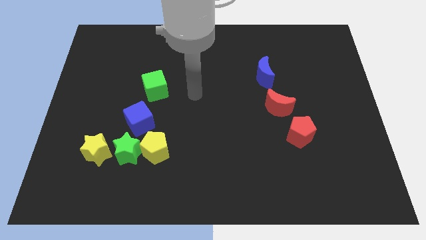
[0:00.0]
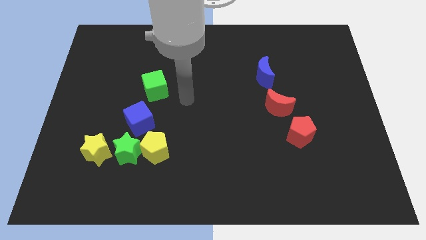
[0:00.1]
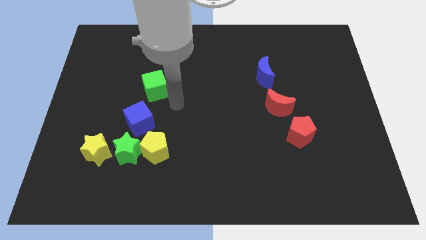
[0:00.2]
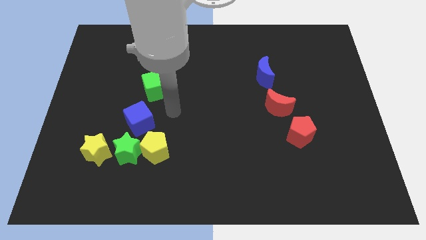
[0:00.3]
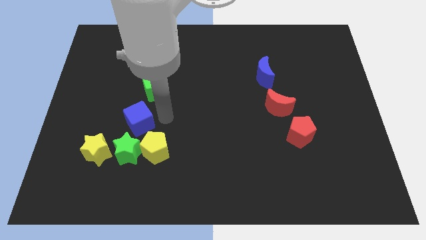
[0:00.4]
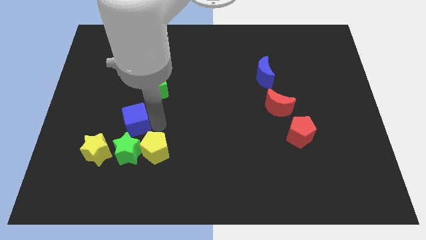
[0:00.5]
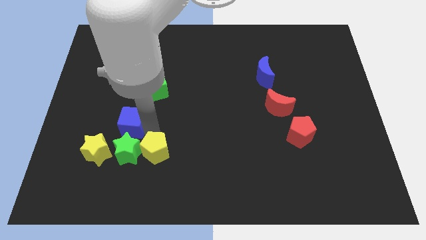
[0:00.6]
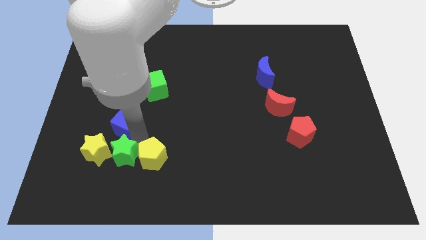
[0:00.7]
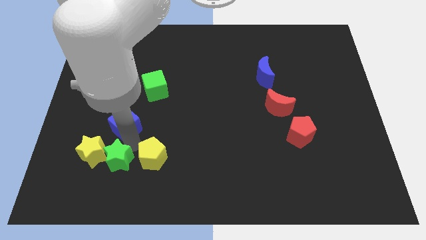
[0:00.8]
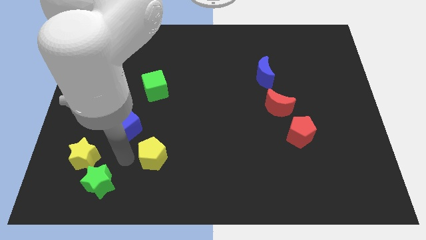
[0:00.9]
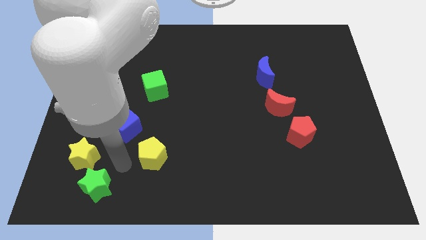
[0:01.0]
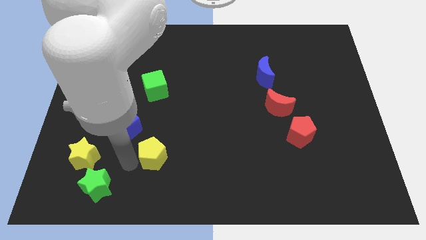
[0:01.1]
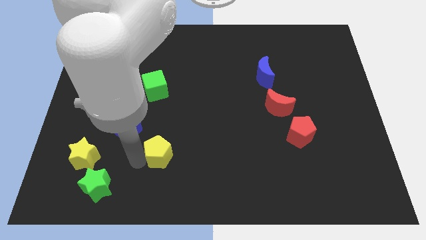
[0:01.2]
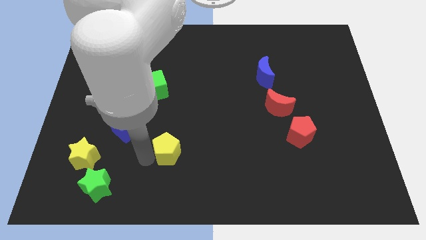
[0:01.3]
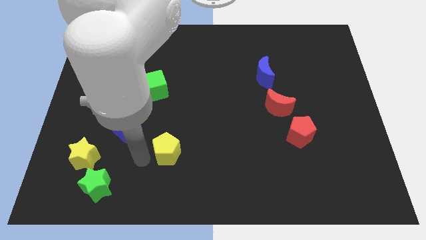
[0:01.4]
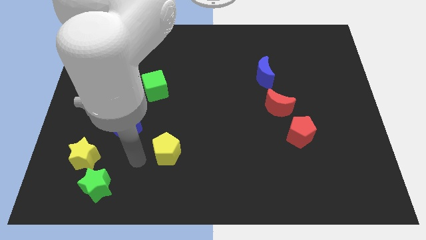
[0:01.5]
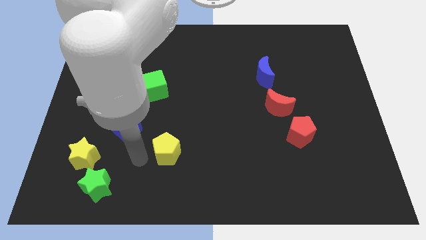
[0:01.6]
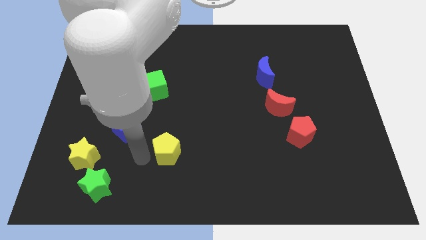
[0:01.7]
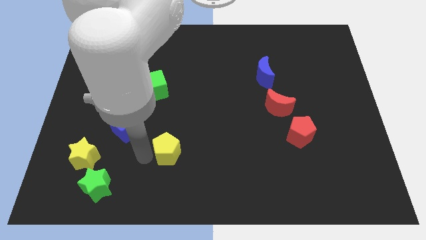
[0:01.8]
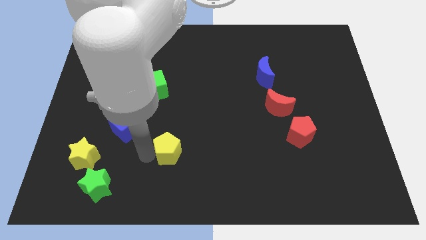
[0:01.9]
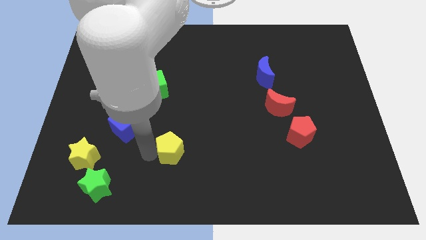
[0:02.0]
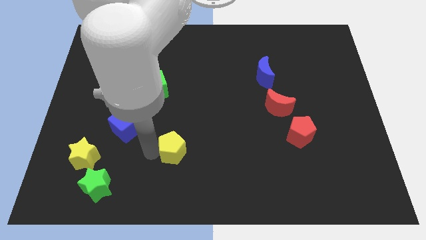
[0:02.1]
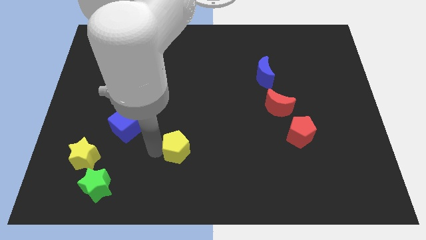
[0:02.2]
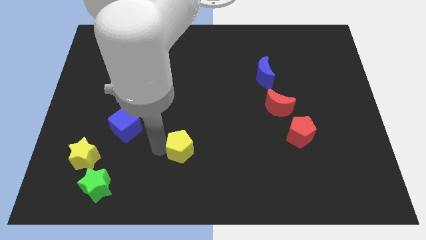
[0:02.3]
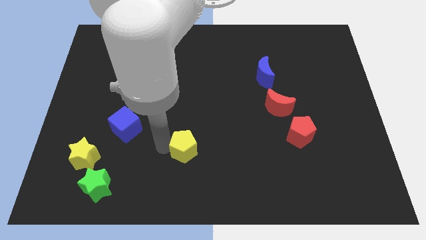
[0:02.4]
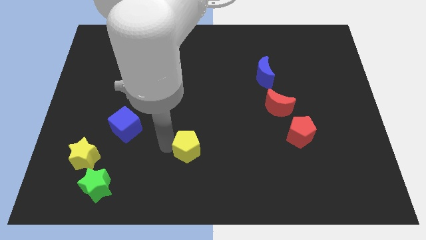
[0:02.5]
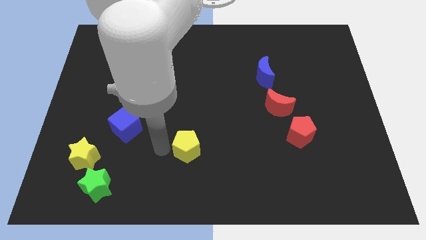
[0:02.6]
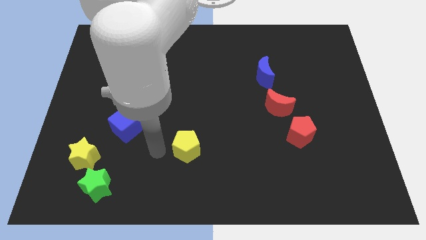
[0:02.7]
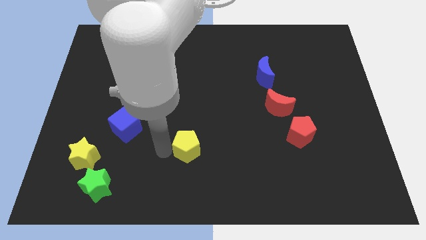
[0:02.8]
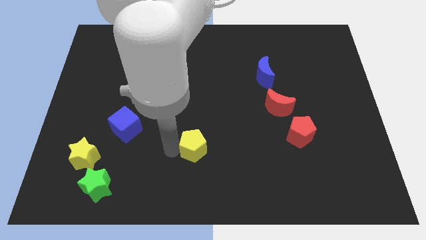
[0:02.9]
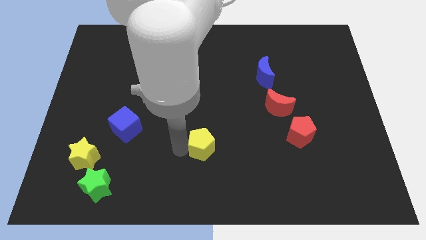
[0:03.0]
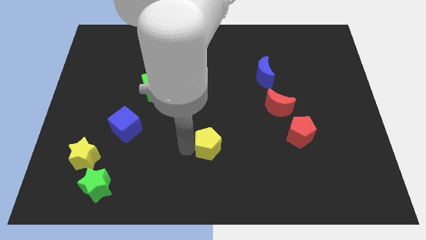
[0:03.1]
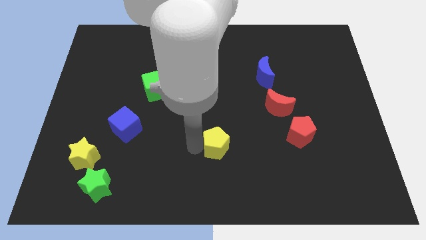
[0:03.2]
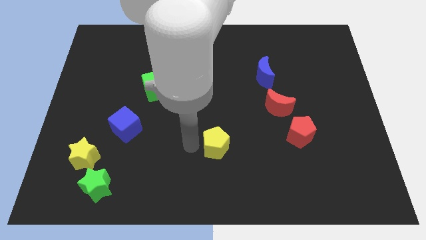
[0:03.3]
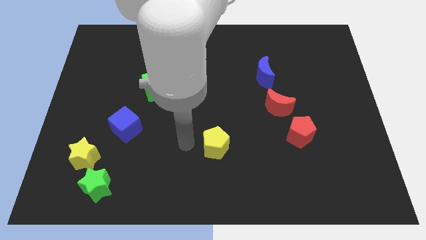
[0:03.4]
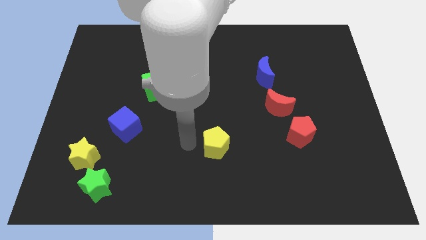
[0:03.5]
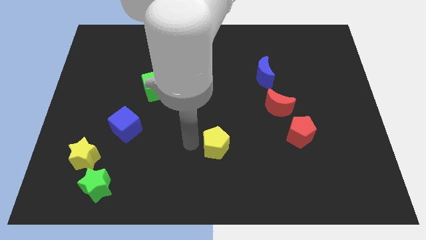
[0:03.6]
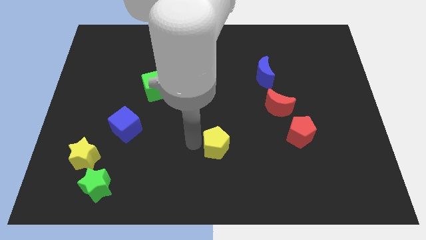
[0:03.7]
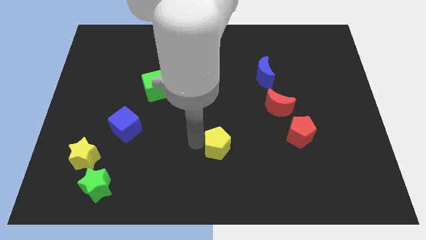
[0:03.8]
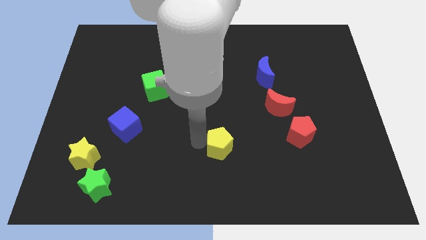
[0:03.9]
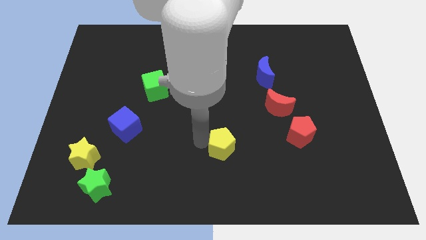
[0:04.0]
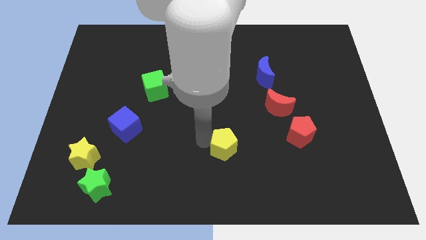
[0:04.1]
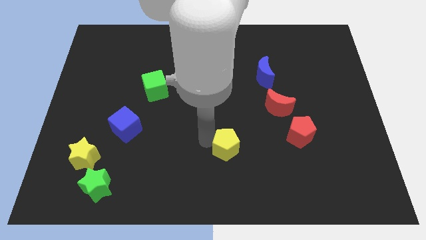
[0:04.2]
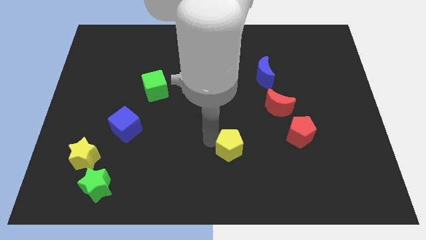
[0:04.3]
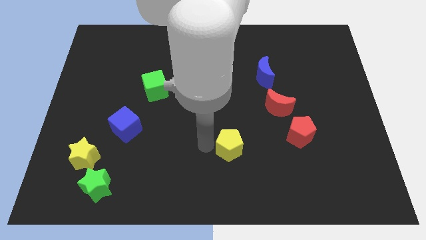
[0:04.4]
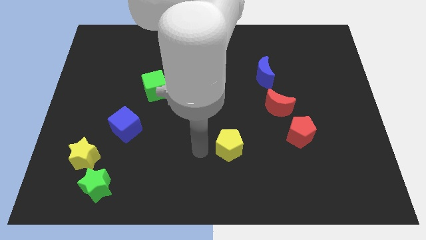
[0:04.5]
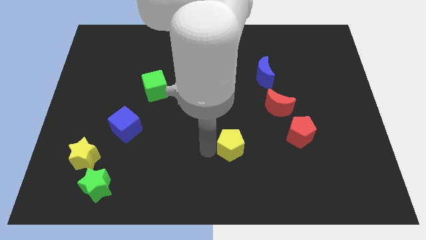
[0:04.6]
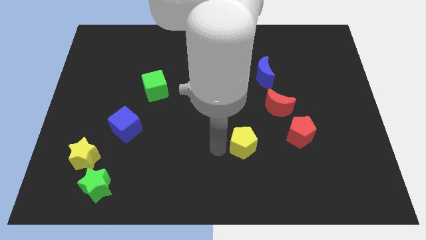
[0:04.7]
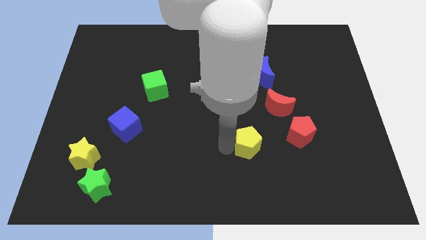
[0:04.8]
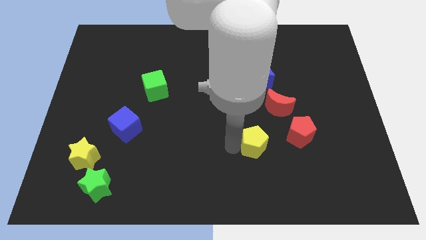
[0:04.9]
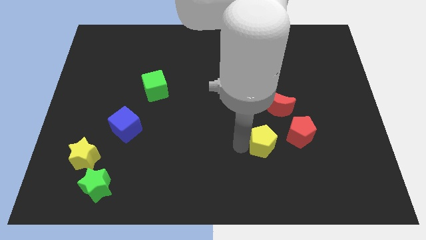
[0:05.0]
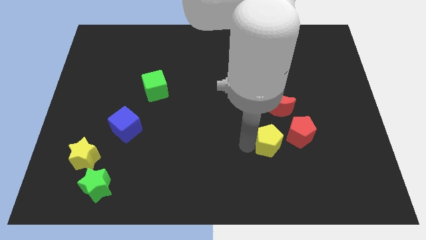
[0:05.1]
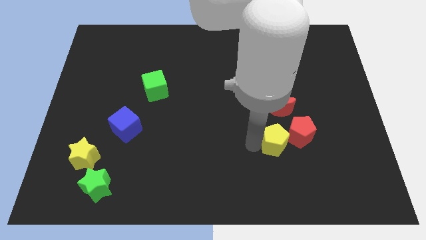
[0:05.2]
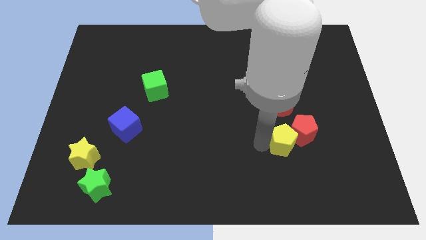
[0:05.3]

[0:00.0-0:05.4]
move the yellow pentagon next to the red pentagon

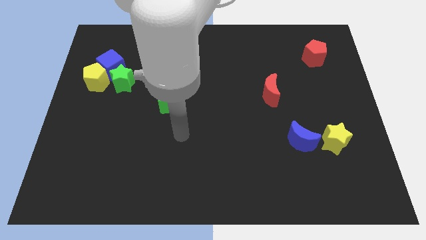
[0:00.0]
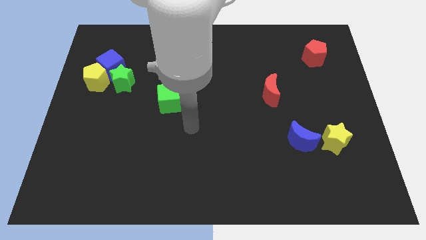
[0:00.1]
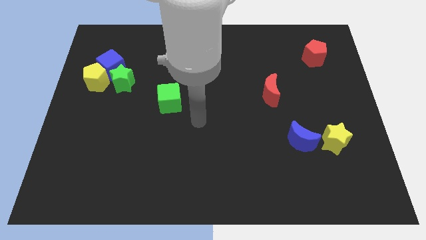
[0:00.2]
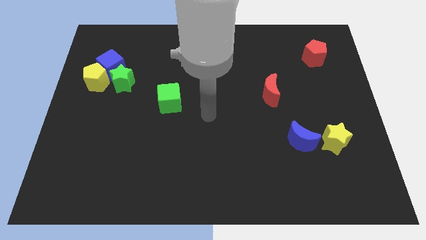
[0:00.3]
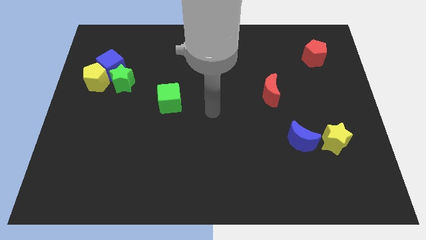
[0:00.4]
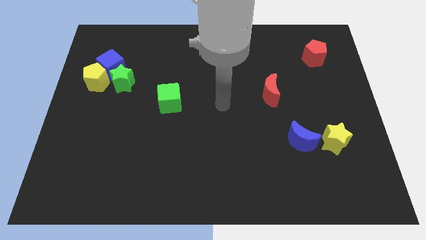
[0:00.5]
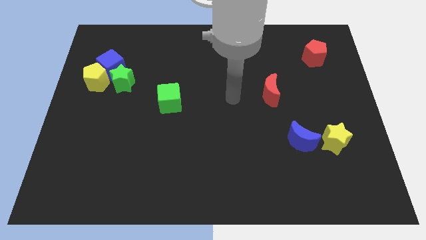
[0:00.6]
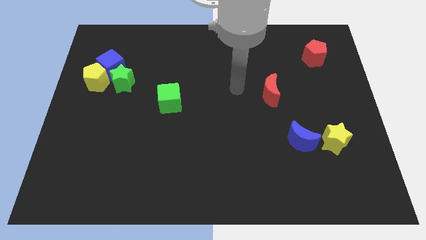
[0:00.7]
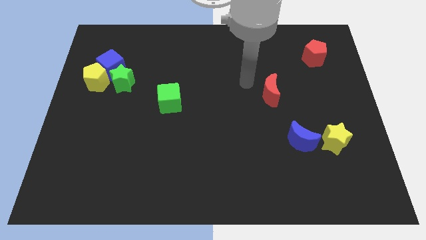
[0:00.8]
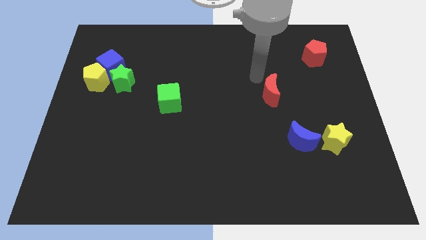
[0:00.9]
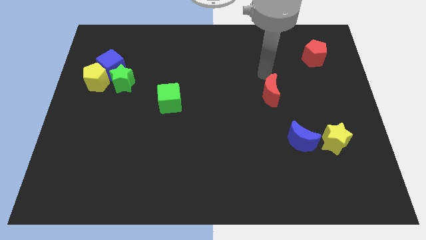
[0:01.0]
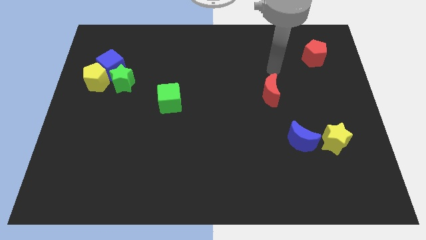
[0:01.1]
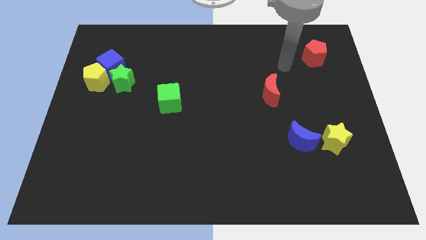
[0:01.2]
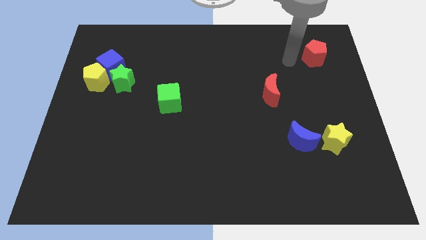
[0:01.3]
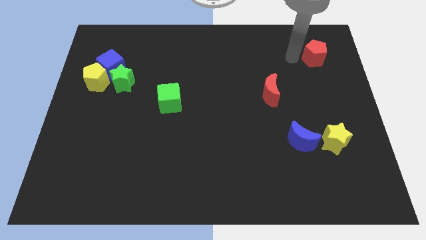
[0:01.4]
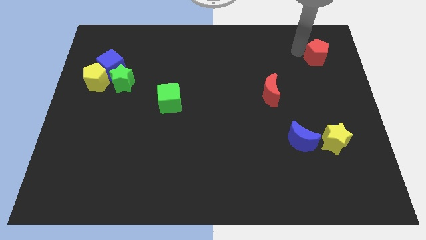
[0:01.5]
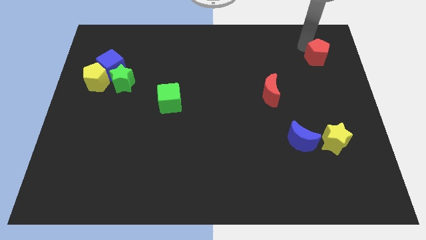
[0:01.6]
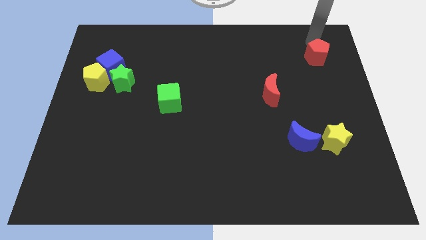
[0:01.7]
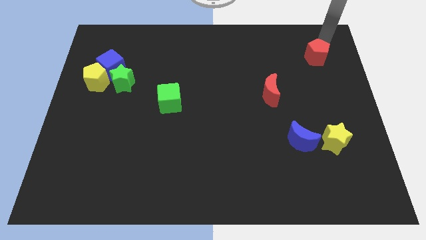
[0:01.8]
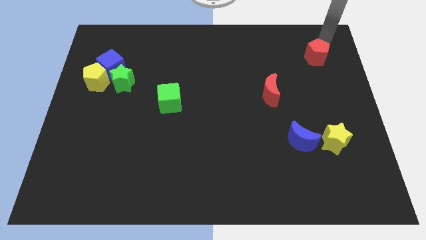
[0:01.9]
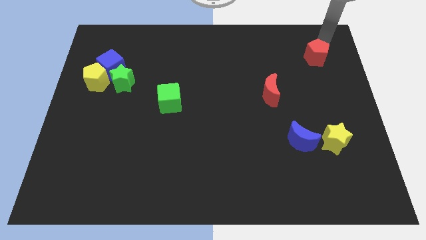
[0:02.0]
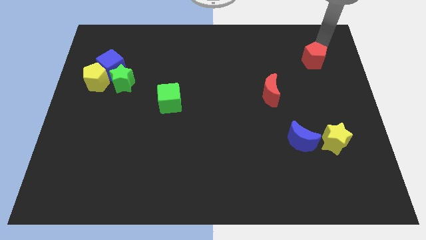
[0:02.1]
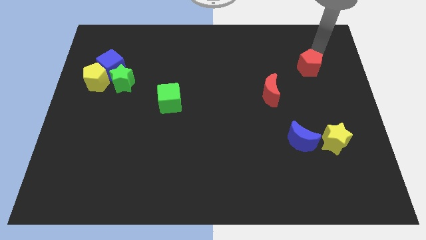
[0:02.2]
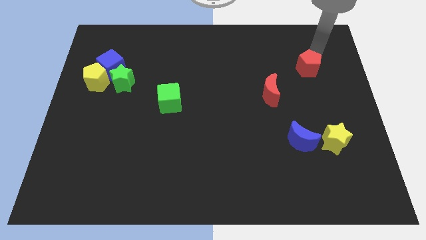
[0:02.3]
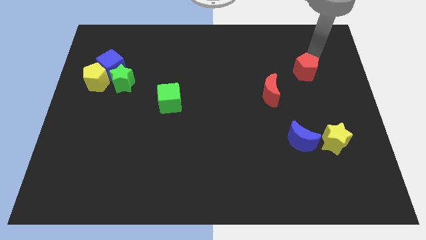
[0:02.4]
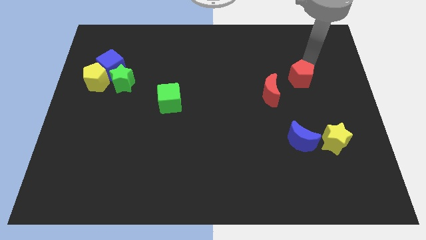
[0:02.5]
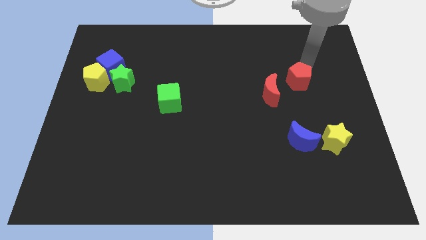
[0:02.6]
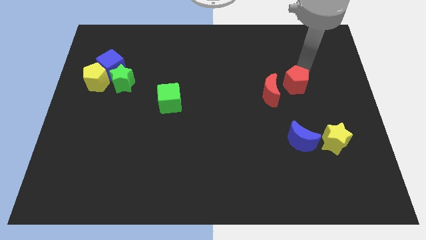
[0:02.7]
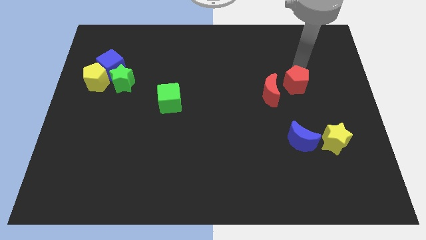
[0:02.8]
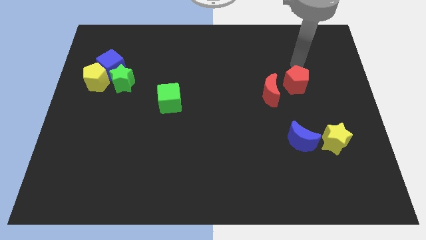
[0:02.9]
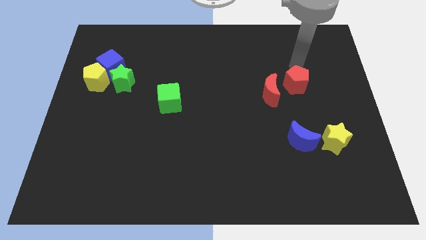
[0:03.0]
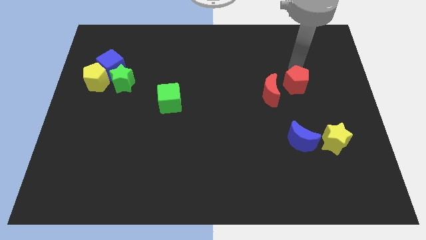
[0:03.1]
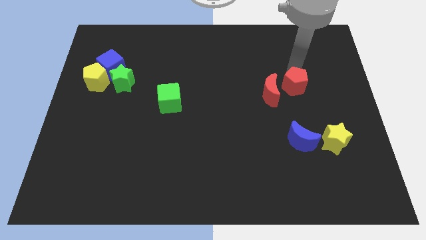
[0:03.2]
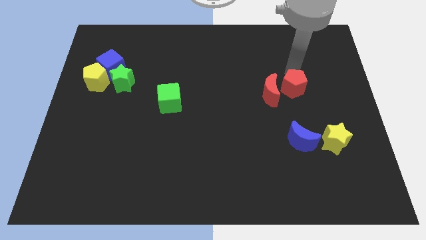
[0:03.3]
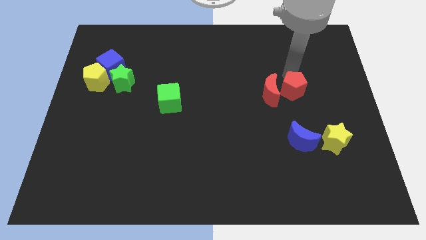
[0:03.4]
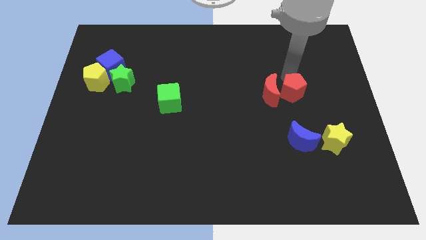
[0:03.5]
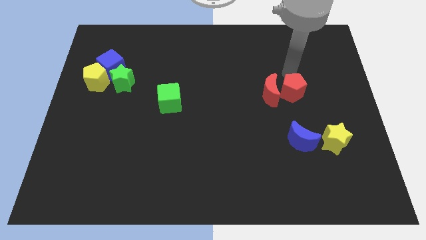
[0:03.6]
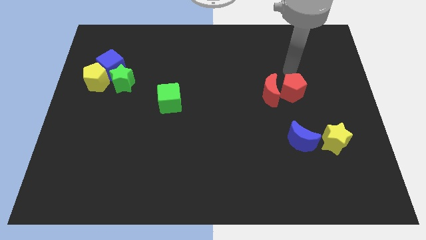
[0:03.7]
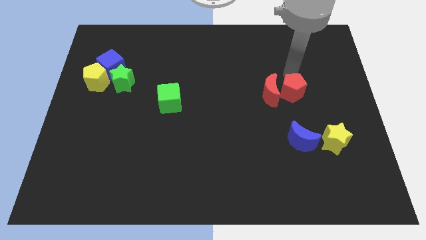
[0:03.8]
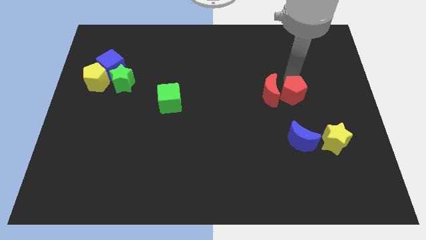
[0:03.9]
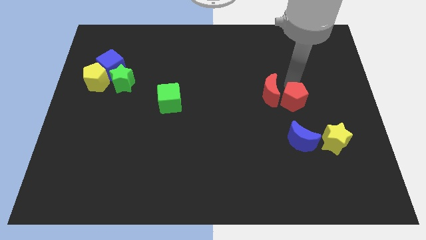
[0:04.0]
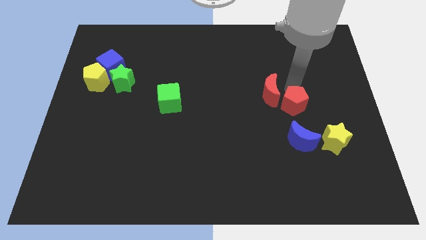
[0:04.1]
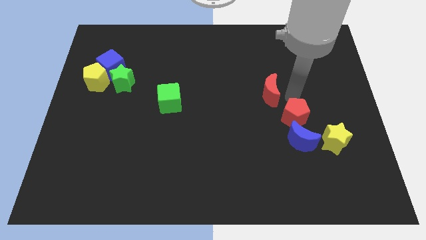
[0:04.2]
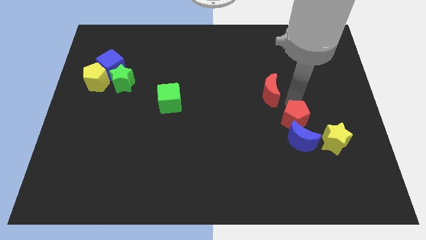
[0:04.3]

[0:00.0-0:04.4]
move the red pentagon next to the blue moon
